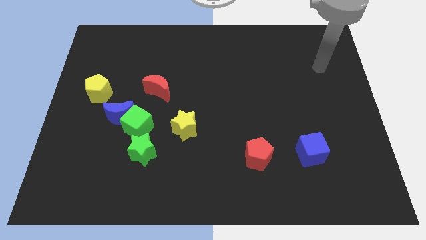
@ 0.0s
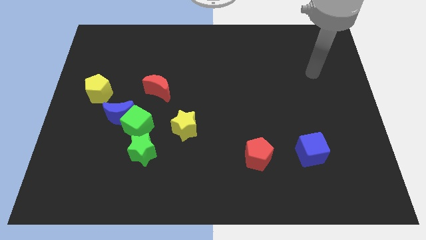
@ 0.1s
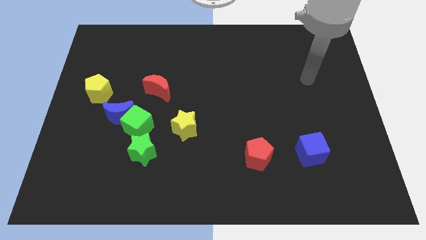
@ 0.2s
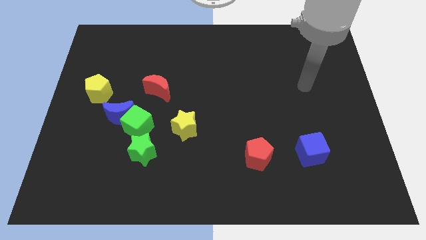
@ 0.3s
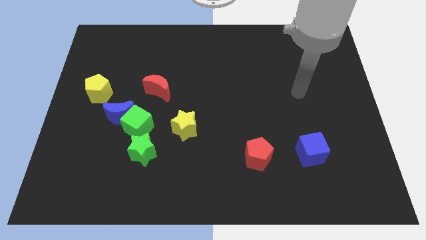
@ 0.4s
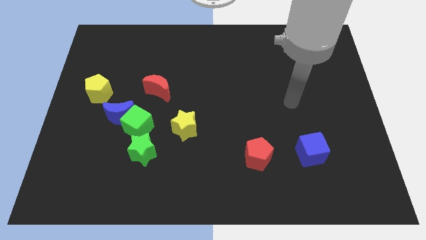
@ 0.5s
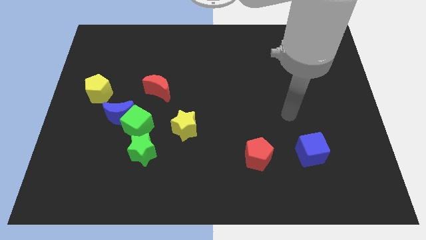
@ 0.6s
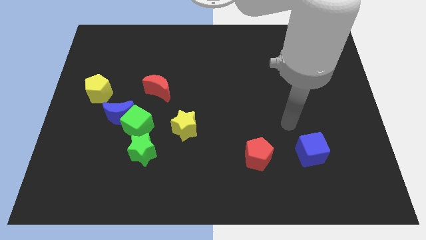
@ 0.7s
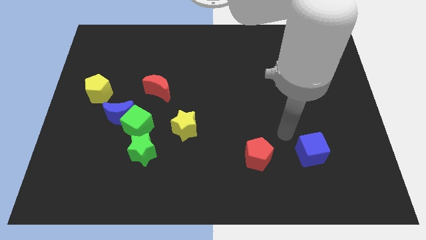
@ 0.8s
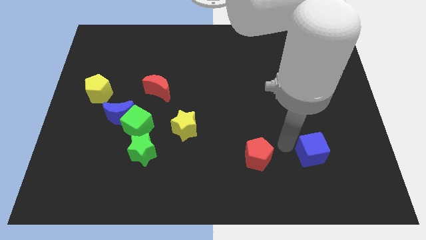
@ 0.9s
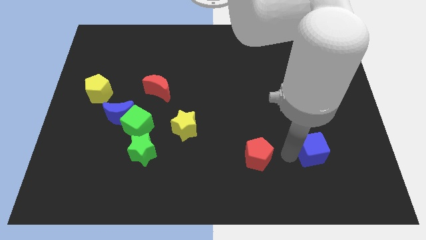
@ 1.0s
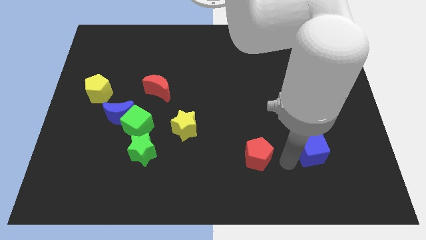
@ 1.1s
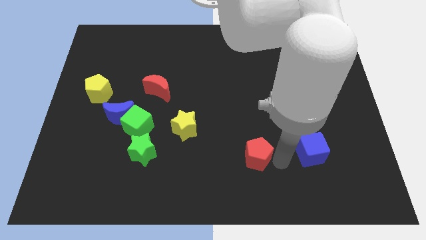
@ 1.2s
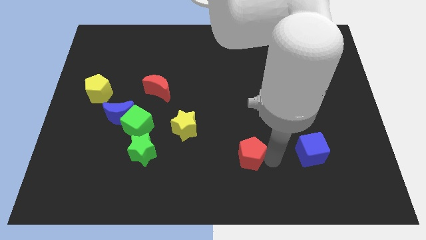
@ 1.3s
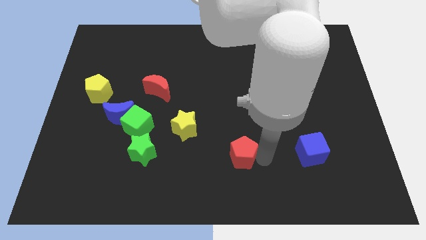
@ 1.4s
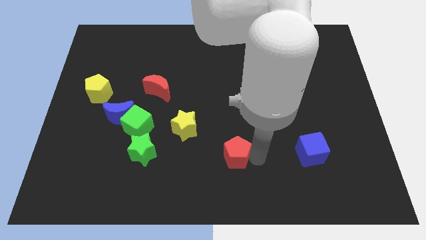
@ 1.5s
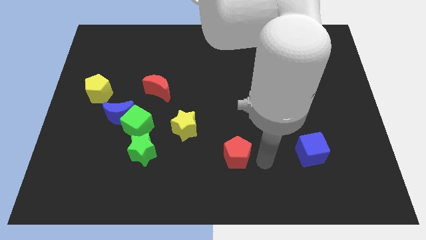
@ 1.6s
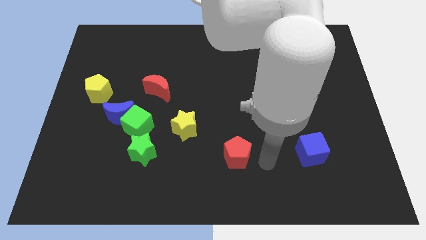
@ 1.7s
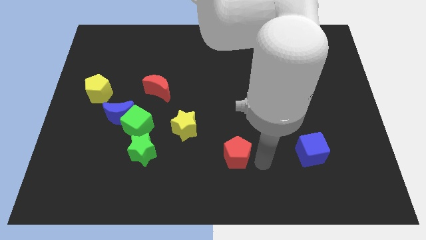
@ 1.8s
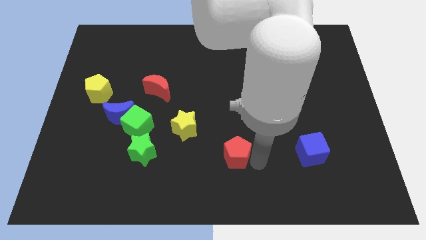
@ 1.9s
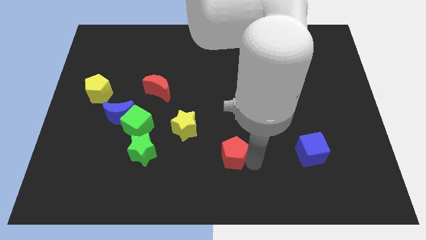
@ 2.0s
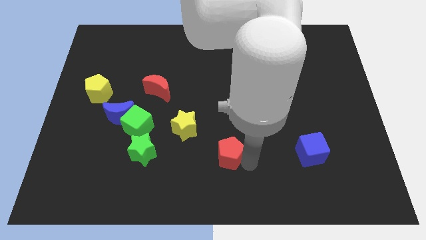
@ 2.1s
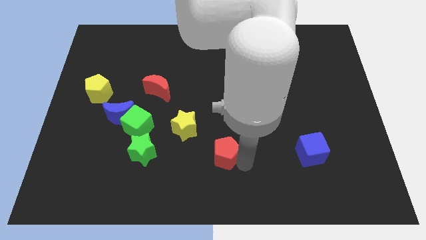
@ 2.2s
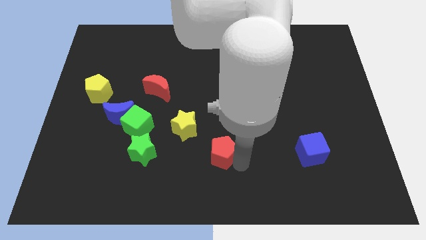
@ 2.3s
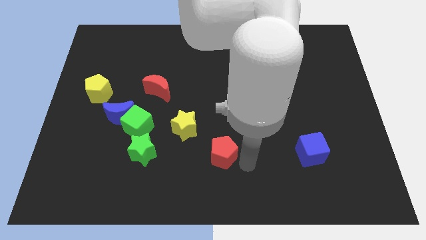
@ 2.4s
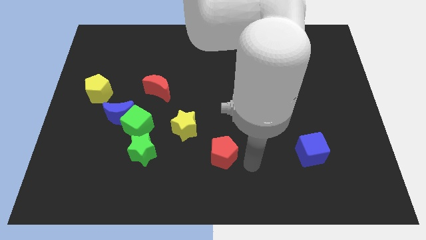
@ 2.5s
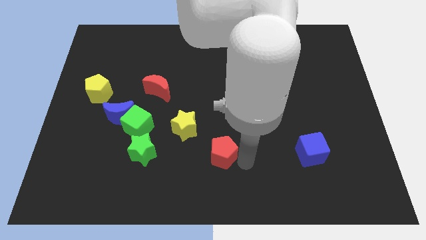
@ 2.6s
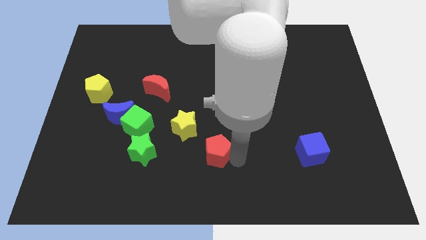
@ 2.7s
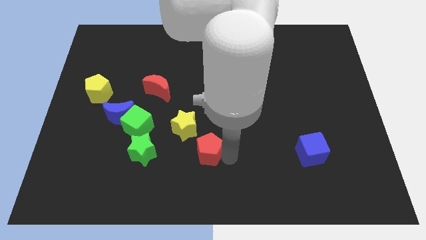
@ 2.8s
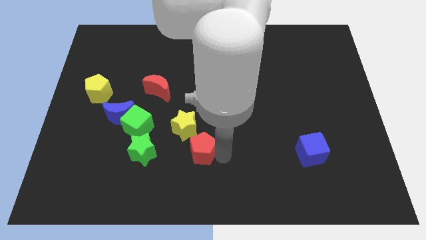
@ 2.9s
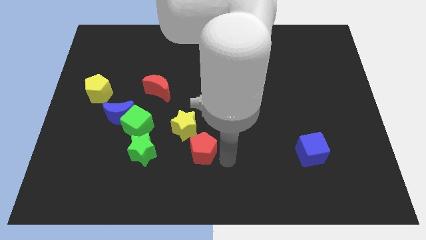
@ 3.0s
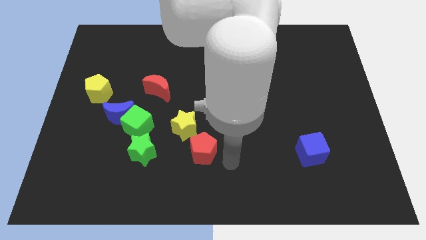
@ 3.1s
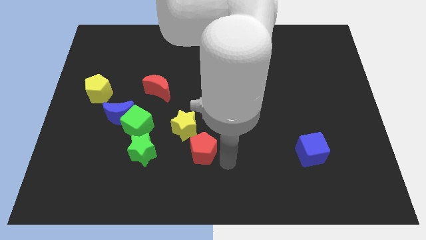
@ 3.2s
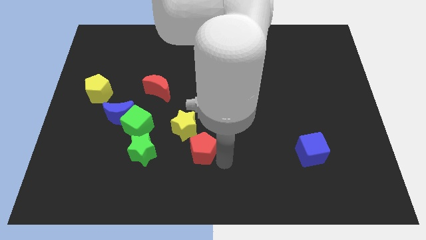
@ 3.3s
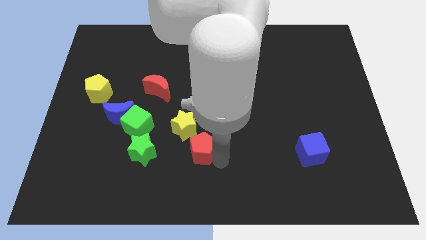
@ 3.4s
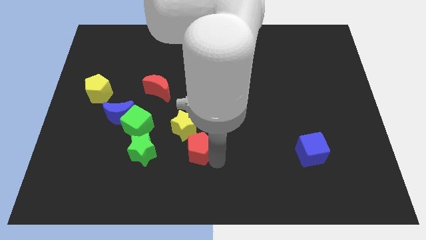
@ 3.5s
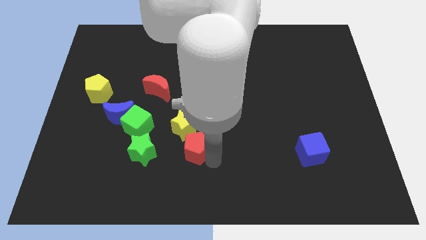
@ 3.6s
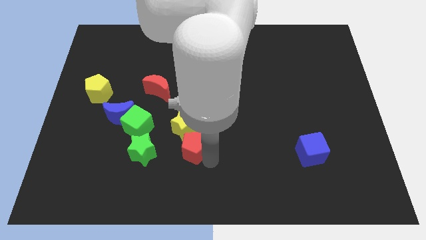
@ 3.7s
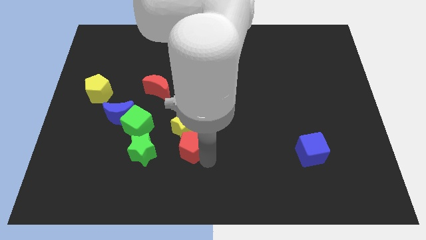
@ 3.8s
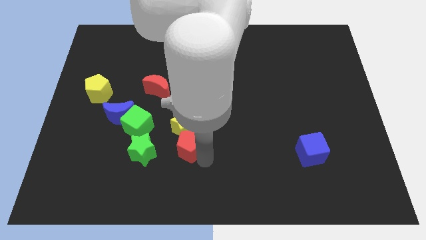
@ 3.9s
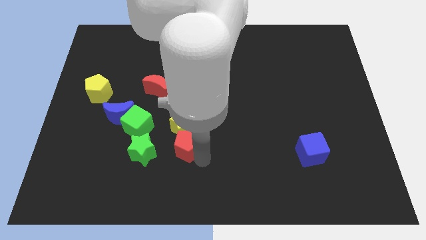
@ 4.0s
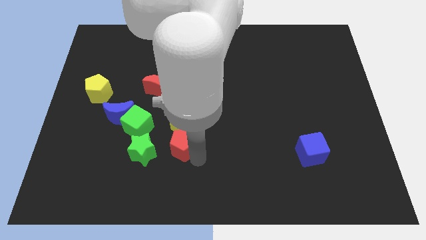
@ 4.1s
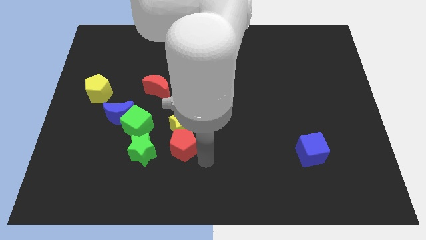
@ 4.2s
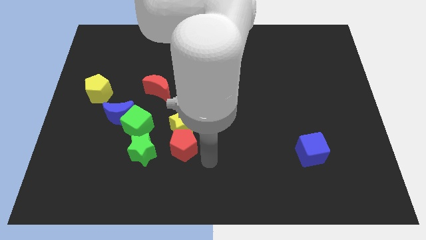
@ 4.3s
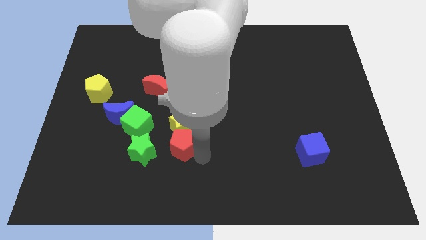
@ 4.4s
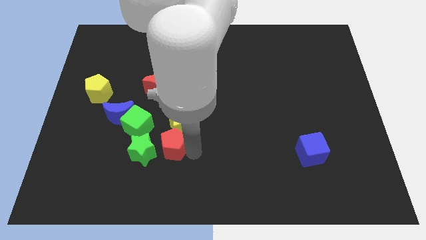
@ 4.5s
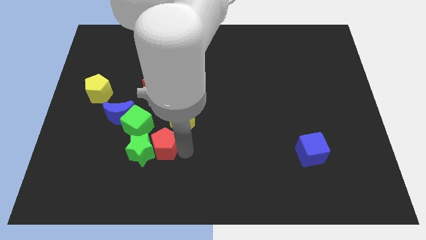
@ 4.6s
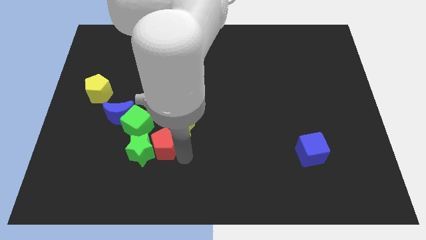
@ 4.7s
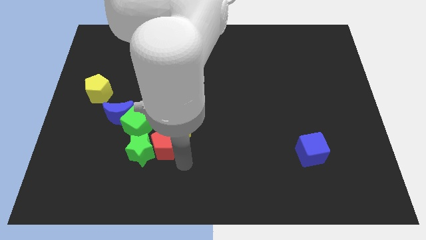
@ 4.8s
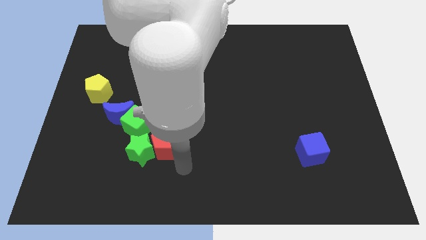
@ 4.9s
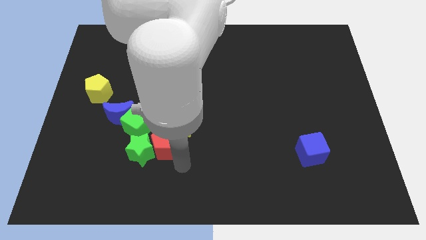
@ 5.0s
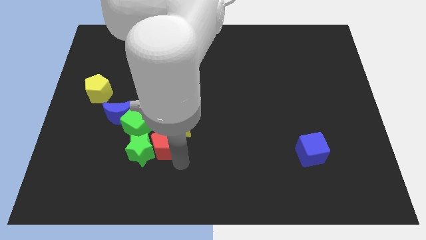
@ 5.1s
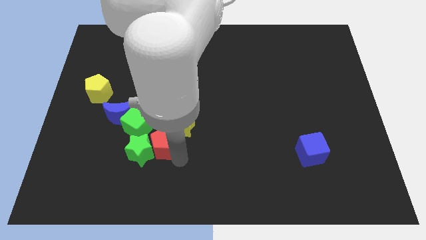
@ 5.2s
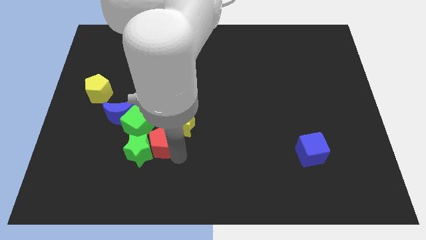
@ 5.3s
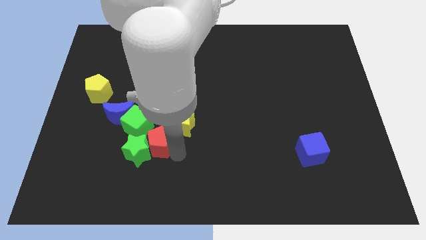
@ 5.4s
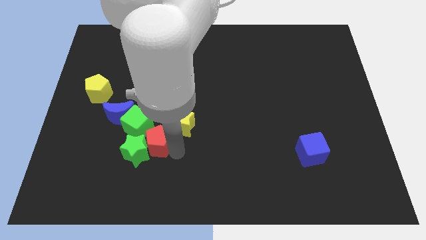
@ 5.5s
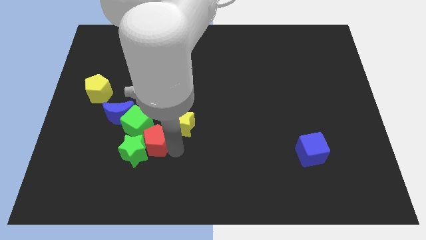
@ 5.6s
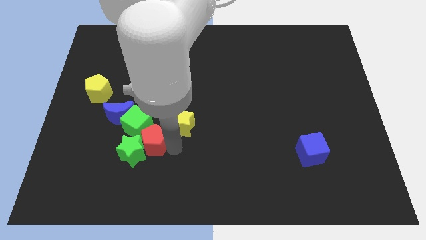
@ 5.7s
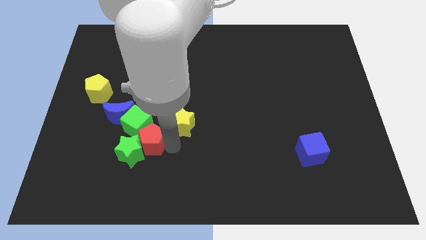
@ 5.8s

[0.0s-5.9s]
move the red pentagon to the green cube

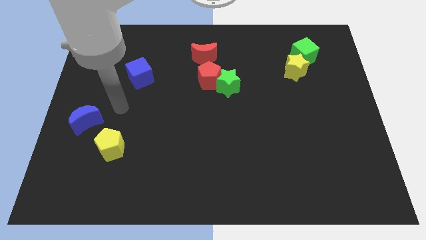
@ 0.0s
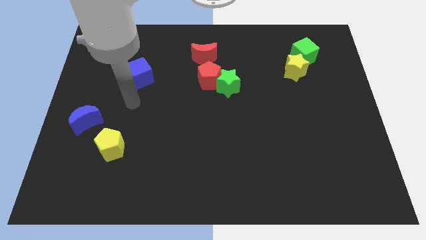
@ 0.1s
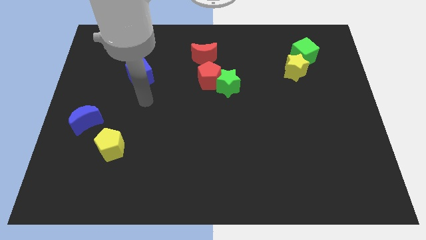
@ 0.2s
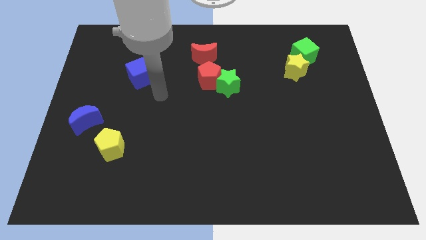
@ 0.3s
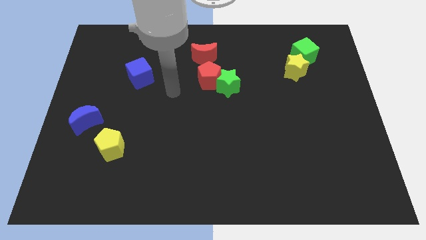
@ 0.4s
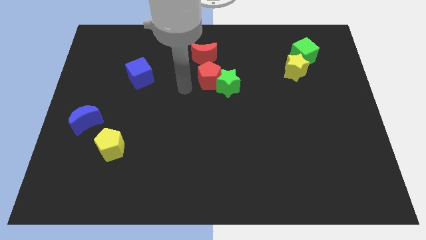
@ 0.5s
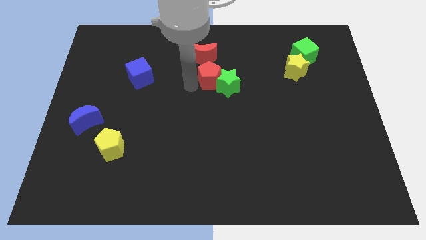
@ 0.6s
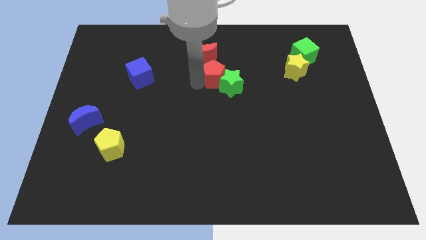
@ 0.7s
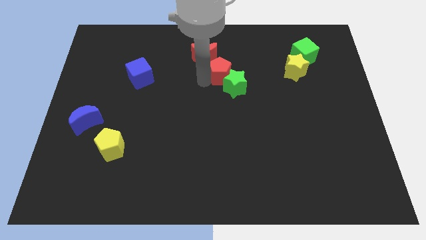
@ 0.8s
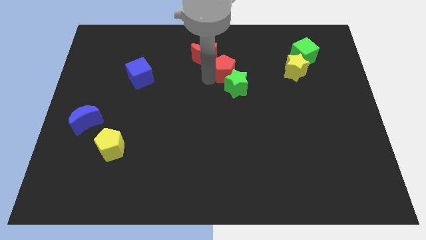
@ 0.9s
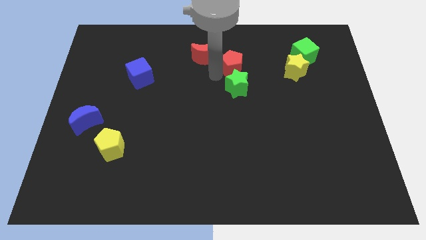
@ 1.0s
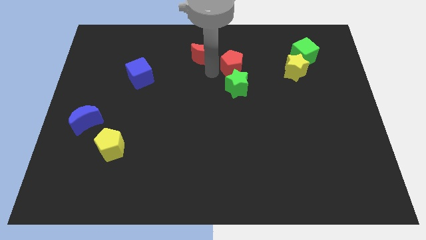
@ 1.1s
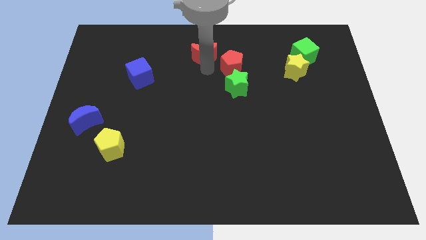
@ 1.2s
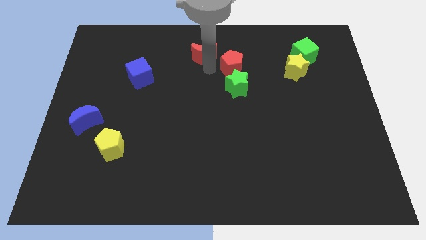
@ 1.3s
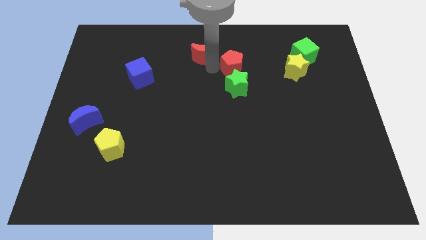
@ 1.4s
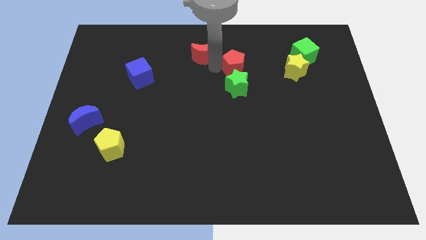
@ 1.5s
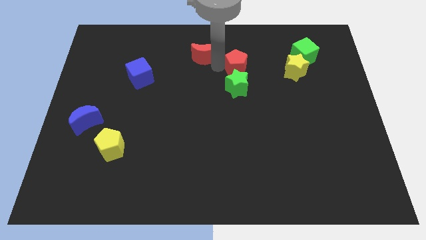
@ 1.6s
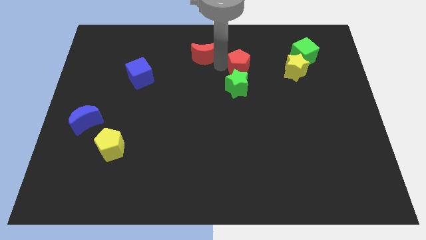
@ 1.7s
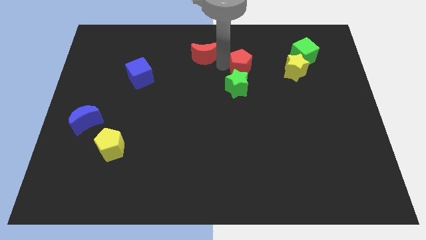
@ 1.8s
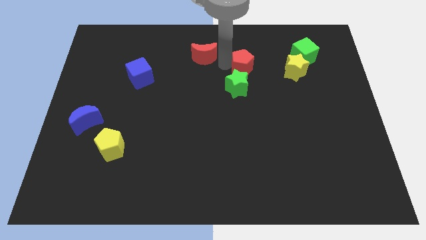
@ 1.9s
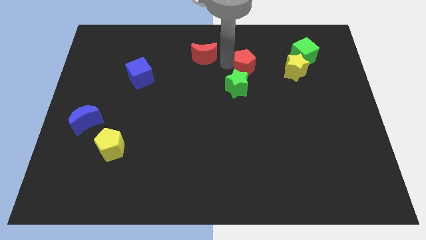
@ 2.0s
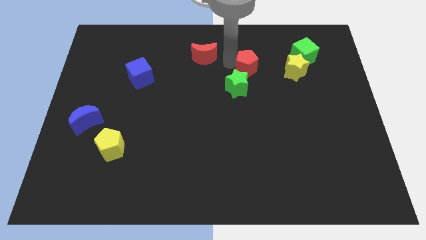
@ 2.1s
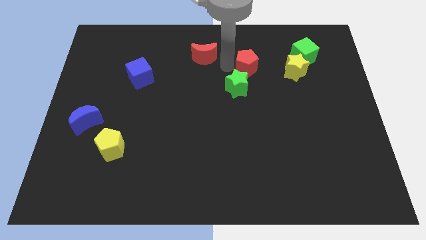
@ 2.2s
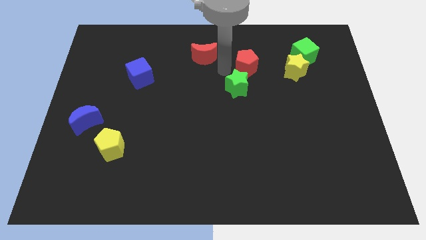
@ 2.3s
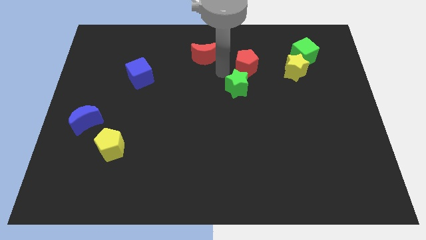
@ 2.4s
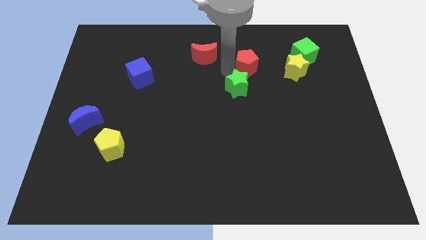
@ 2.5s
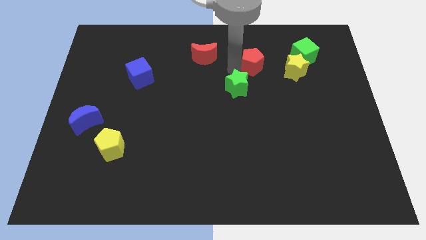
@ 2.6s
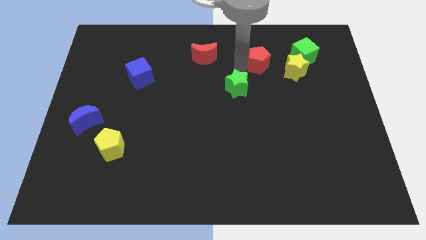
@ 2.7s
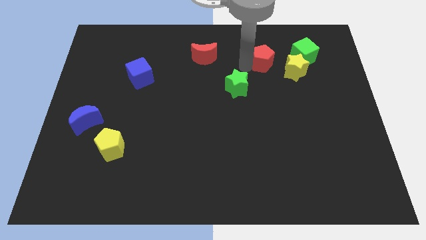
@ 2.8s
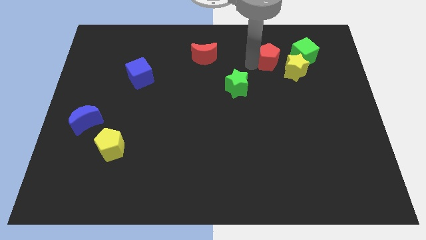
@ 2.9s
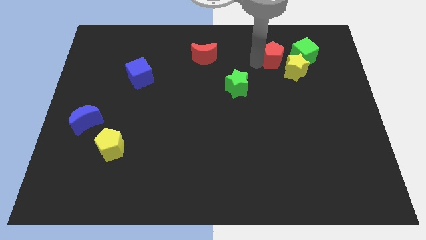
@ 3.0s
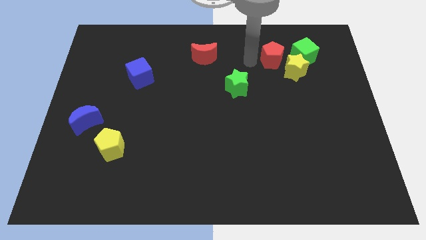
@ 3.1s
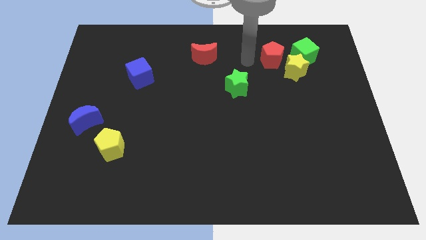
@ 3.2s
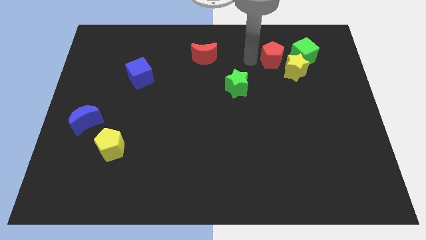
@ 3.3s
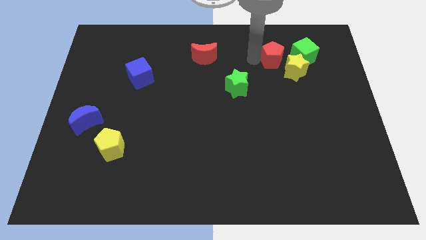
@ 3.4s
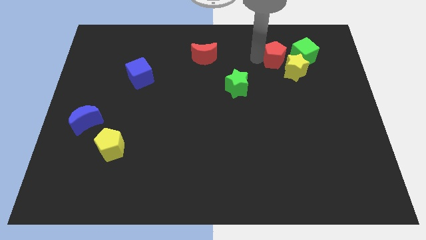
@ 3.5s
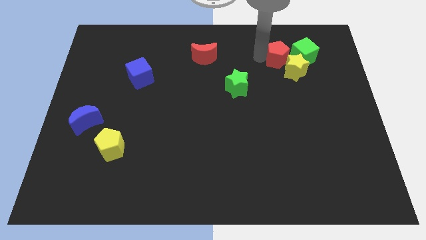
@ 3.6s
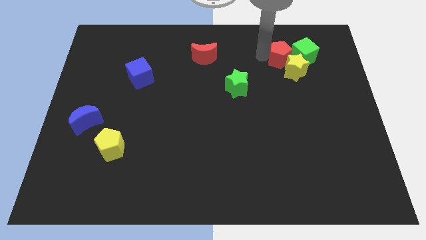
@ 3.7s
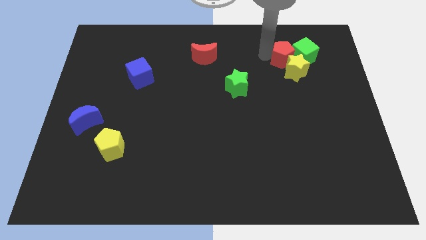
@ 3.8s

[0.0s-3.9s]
slide the red pentagon close to the green cube
